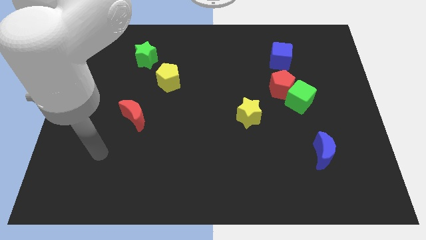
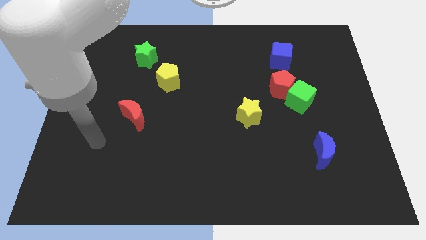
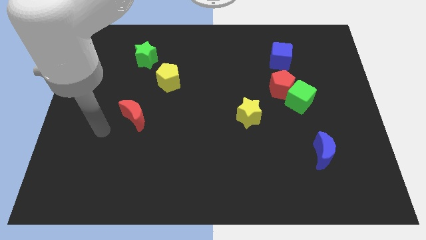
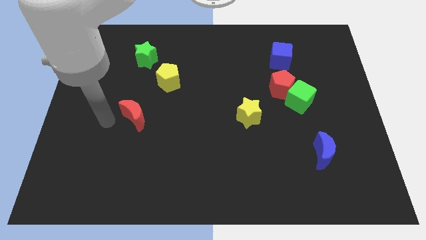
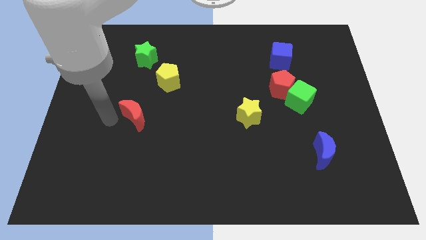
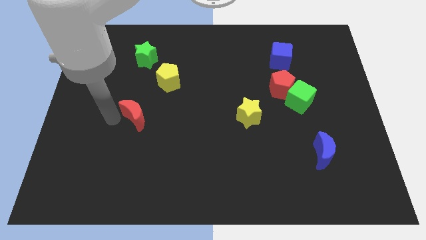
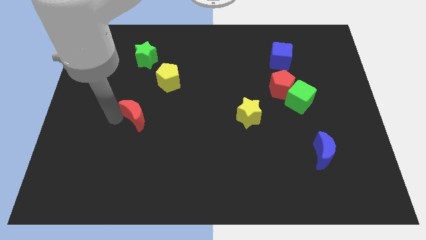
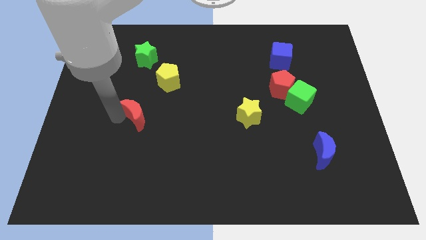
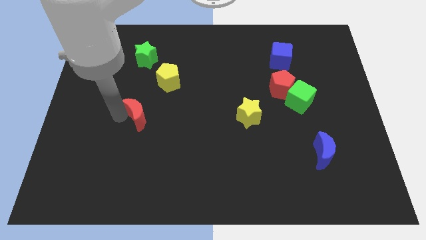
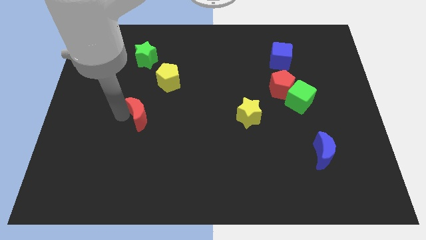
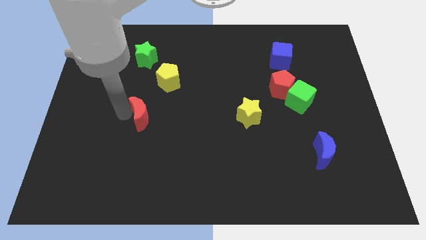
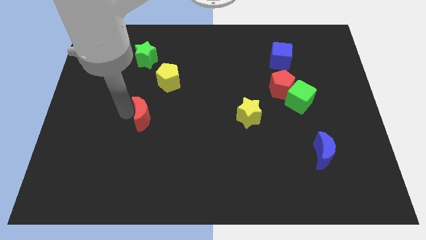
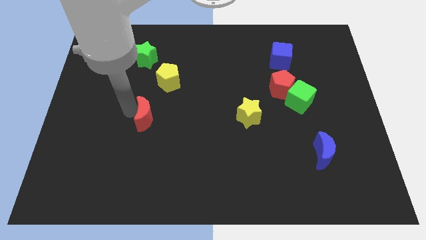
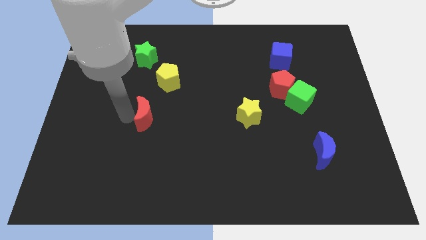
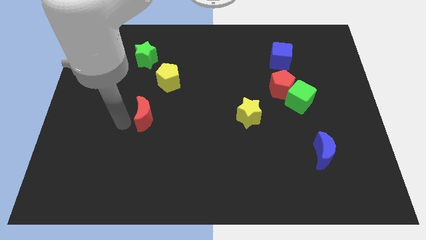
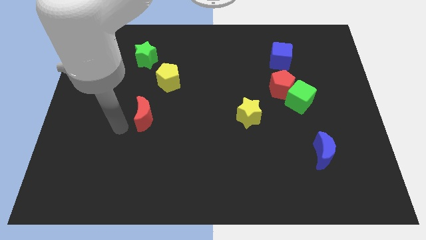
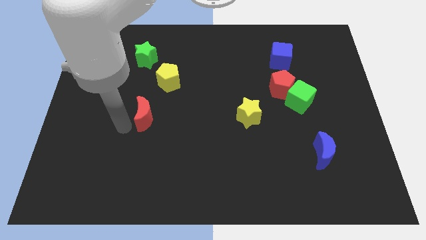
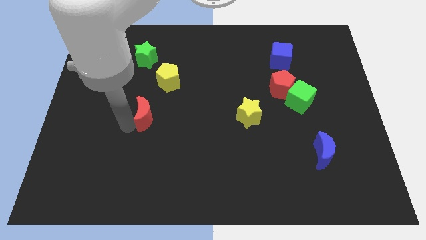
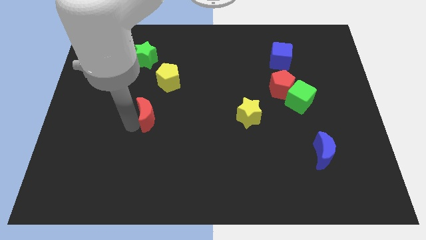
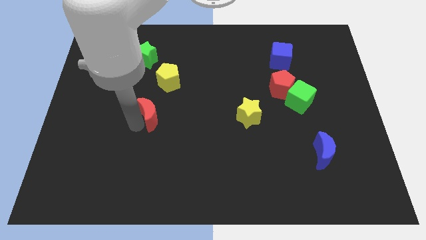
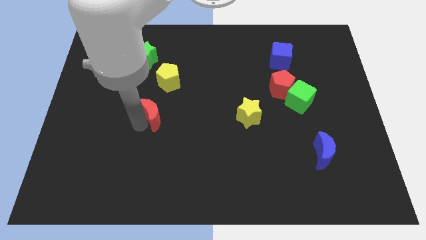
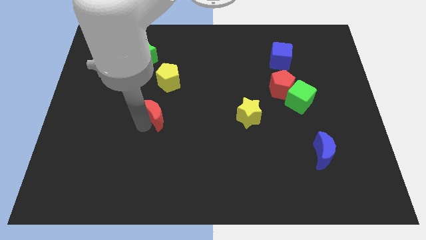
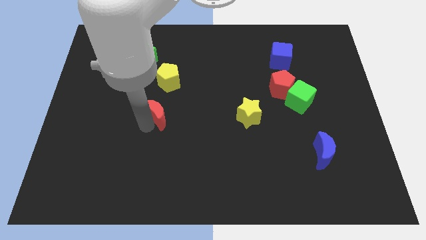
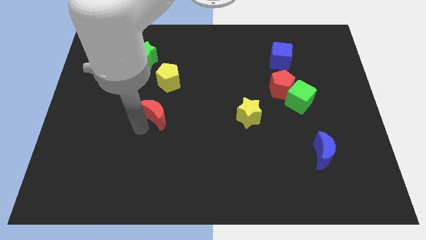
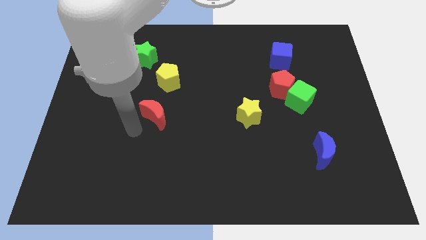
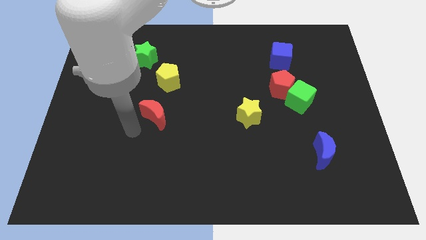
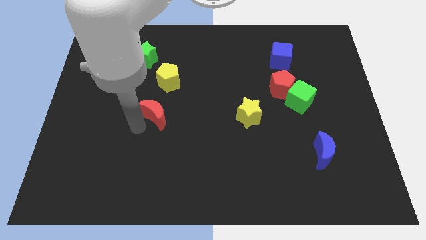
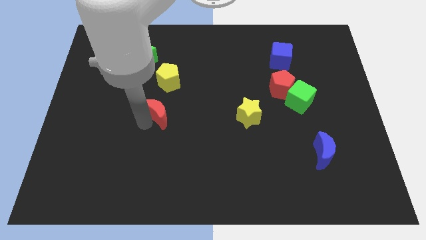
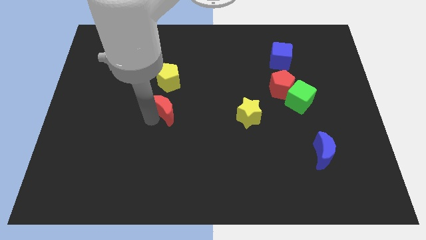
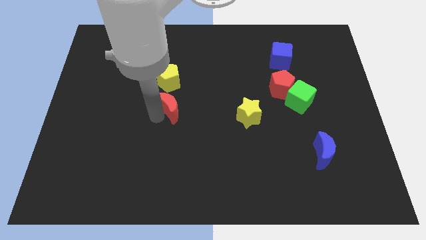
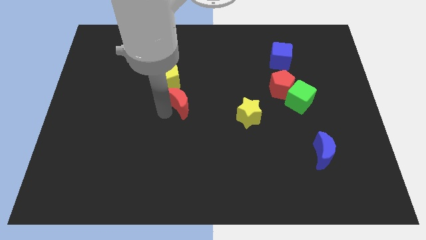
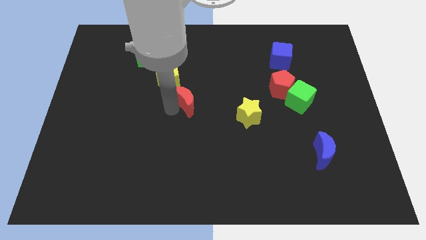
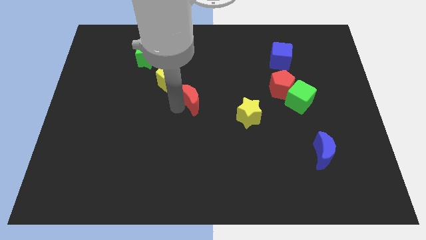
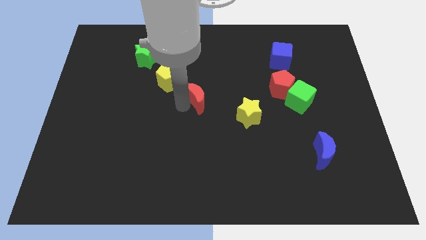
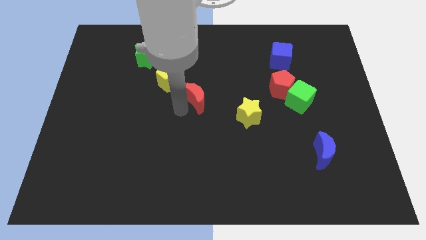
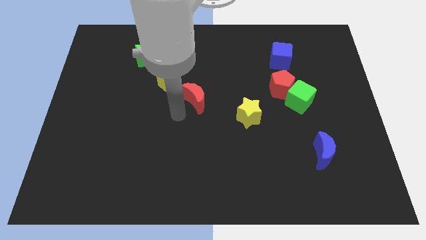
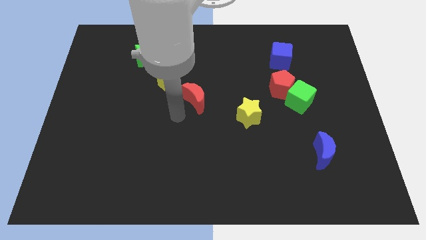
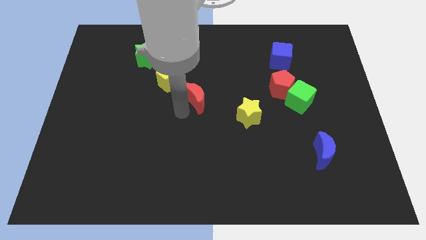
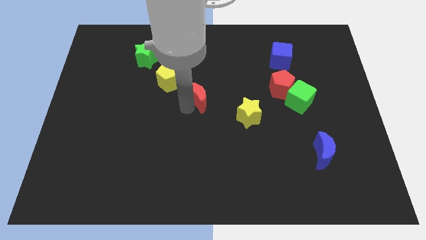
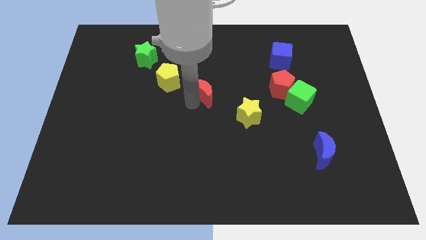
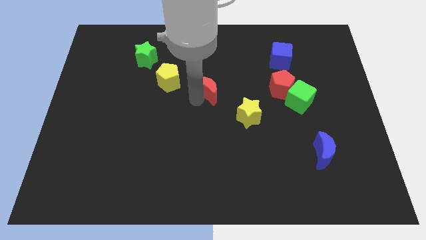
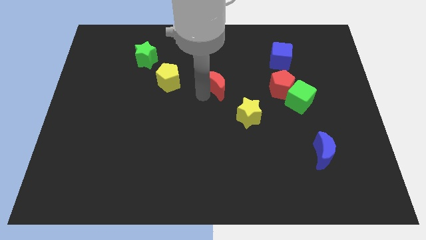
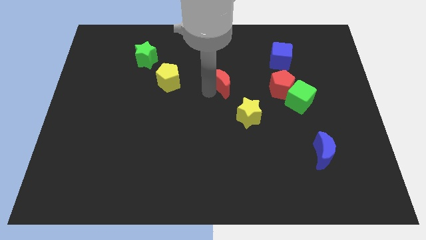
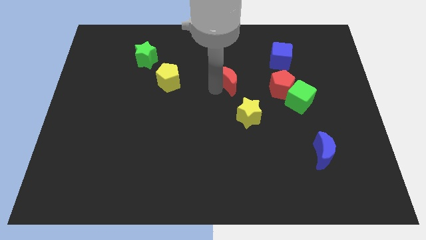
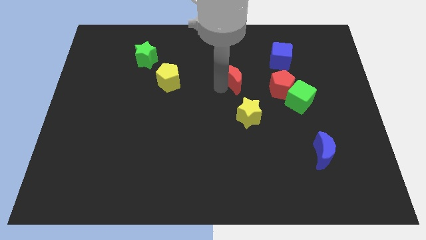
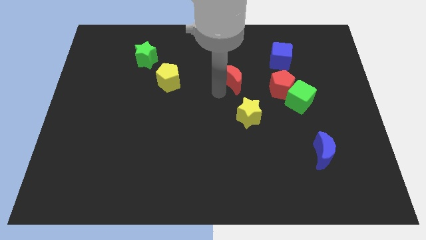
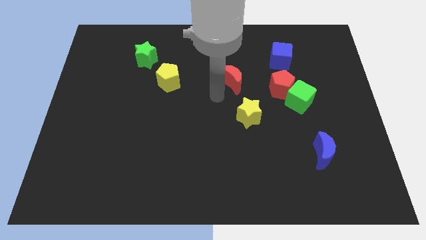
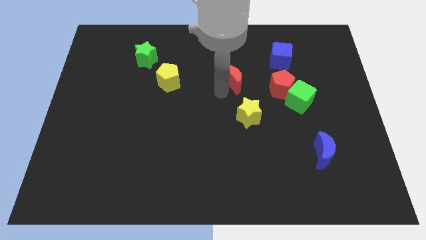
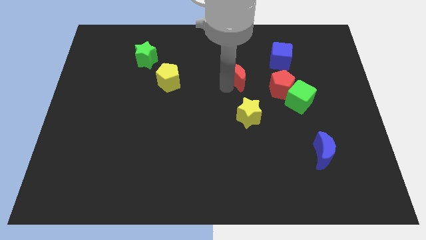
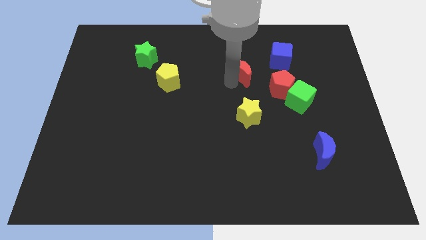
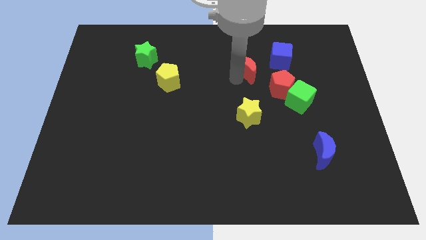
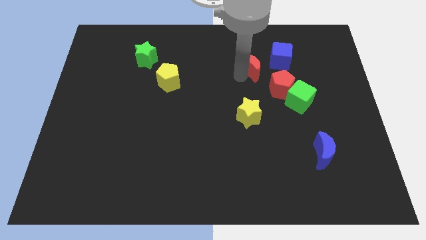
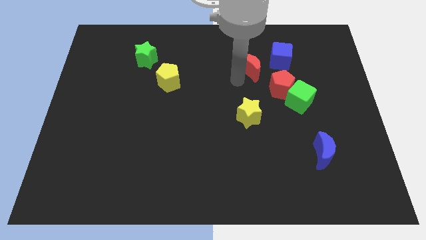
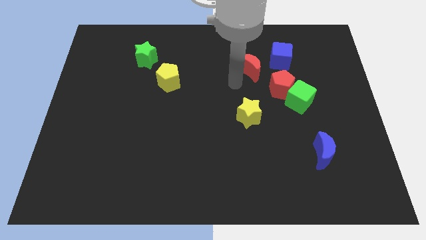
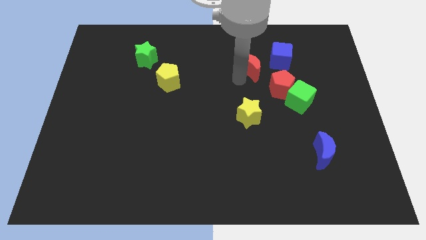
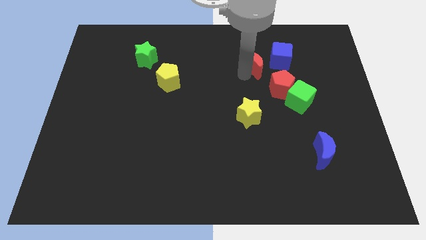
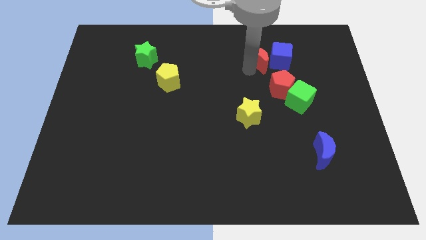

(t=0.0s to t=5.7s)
slide the red moon to the top side of the red pentagon

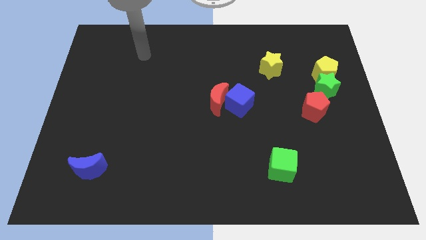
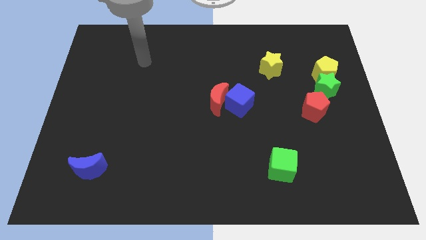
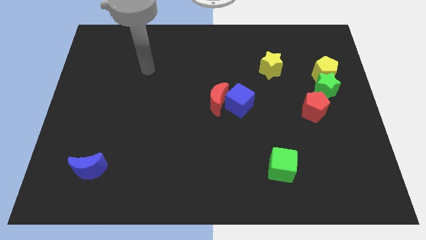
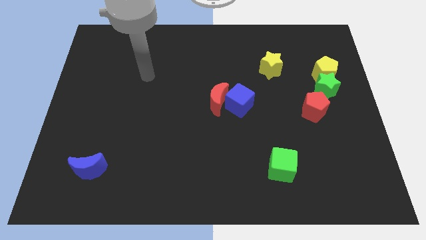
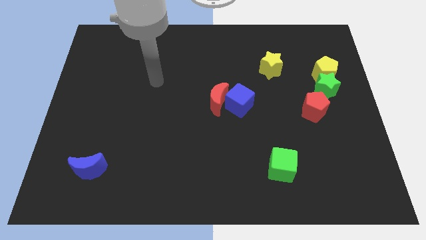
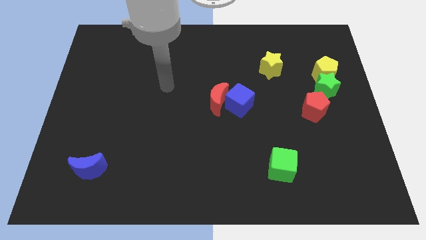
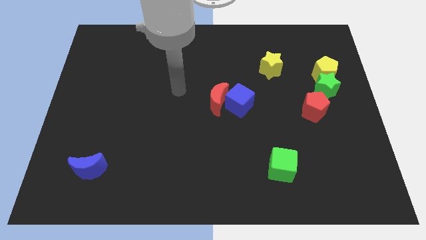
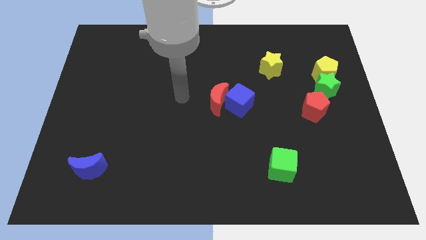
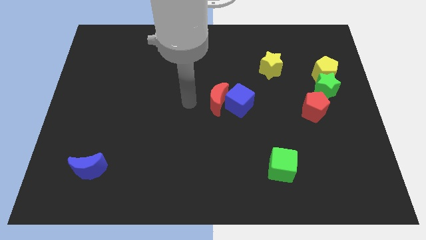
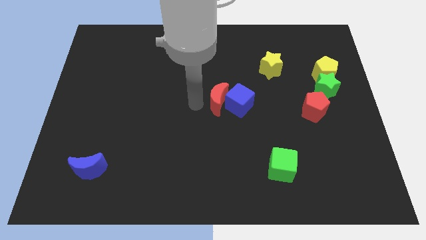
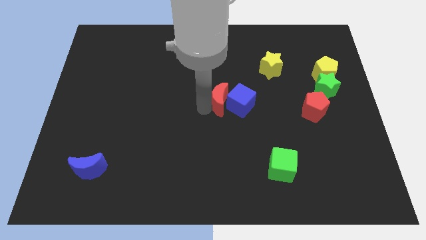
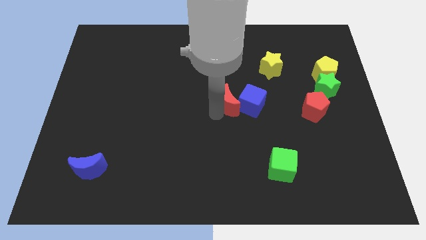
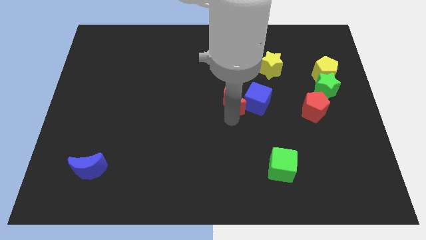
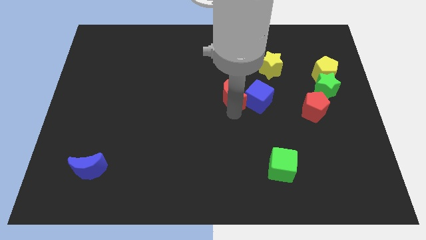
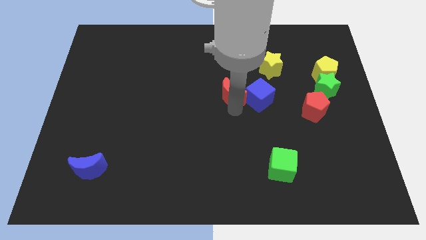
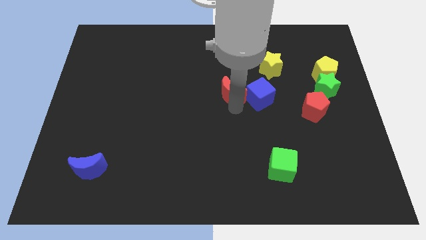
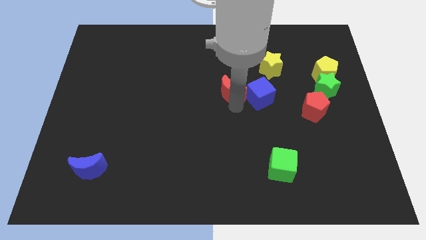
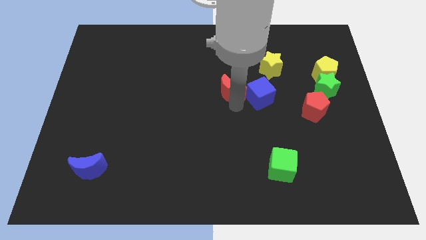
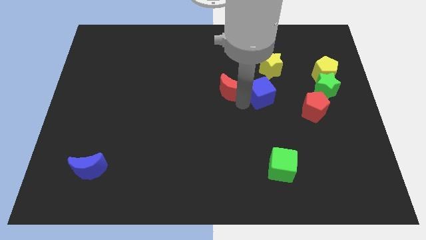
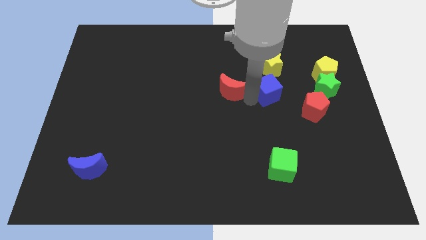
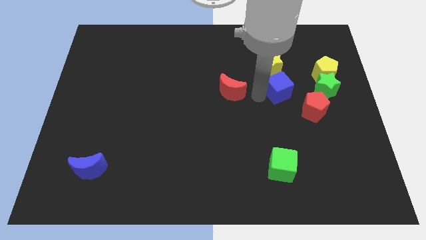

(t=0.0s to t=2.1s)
push the blue cube diagonally down and to the right of the yellow star
